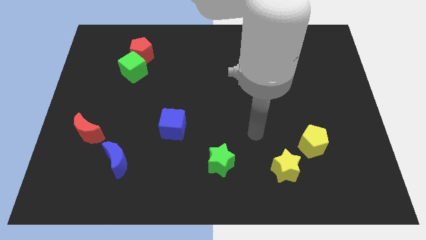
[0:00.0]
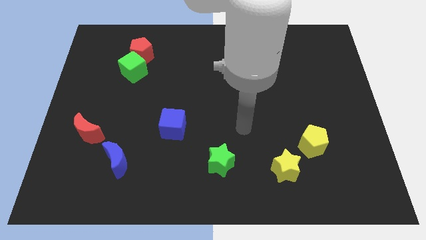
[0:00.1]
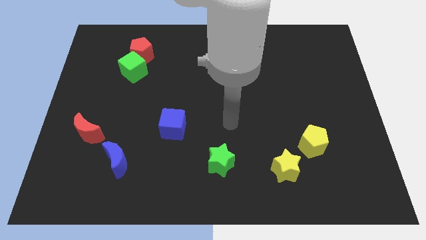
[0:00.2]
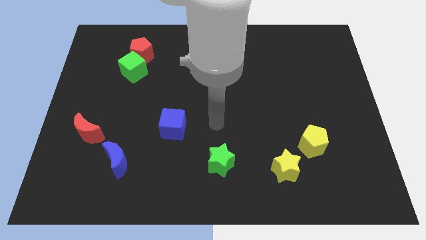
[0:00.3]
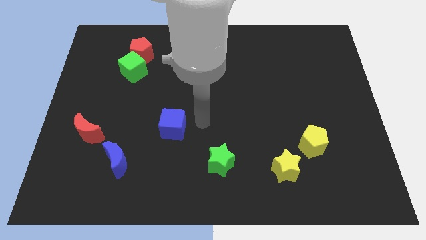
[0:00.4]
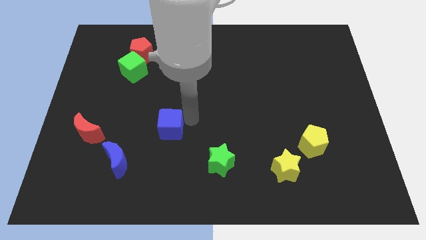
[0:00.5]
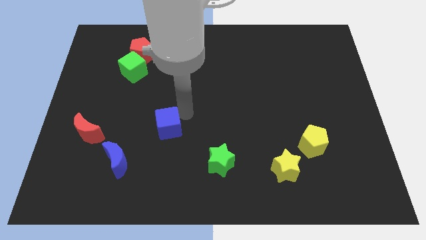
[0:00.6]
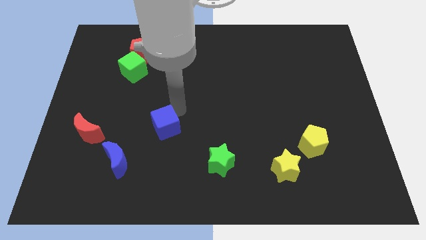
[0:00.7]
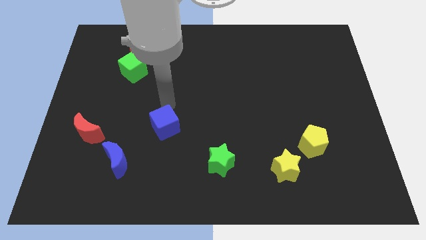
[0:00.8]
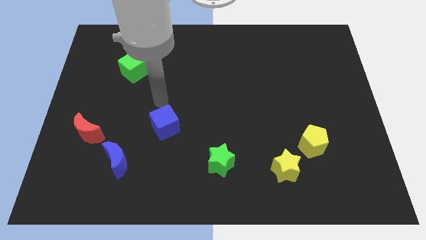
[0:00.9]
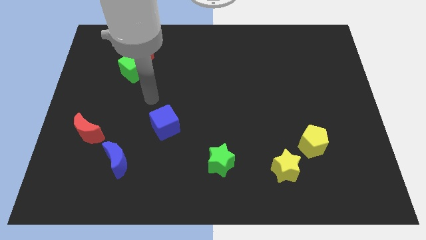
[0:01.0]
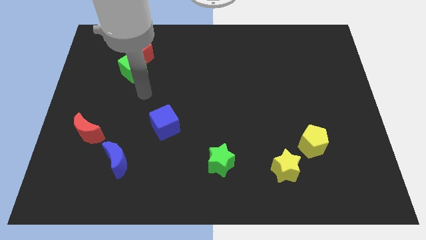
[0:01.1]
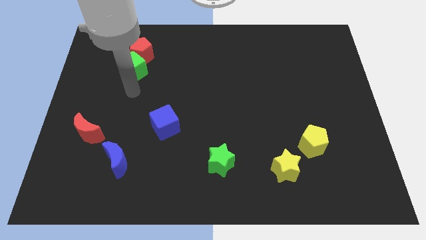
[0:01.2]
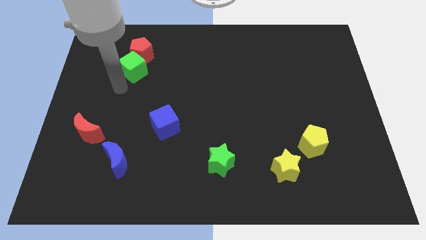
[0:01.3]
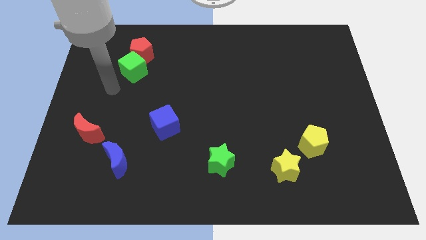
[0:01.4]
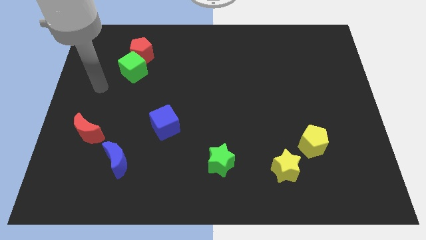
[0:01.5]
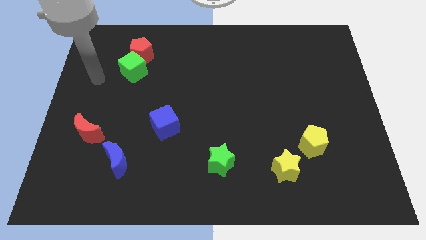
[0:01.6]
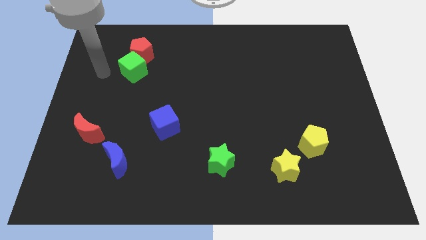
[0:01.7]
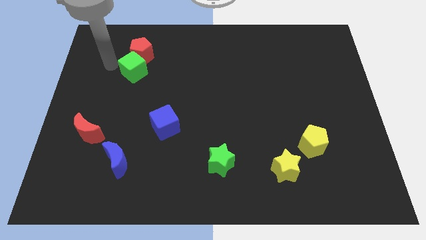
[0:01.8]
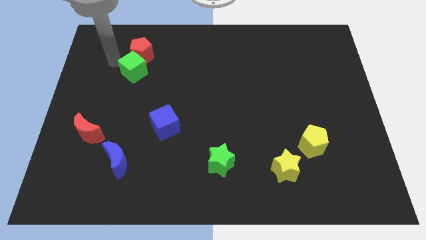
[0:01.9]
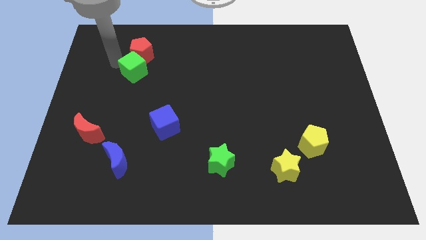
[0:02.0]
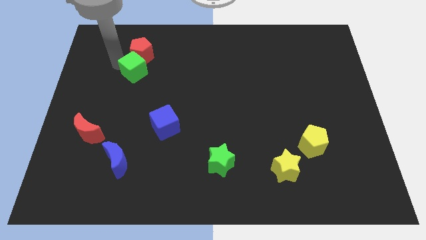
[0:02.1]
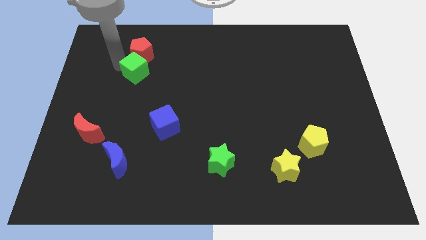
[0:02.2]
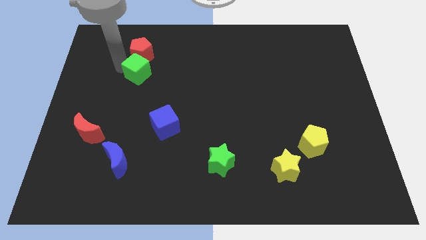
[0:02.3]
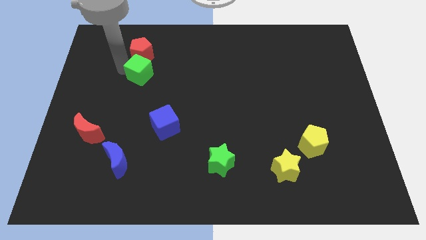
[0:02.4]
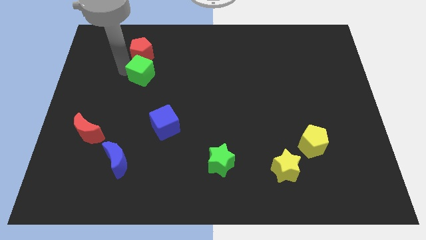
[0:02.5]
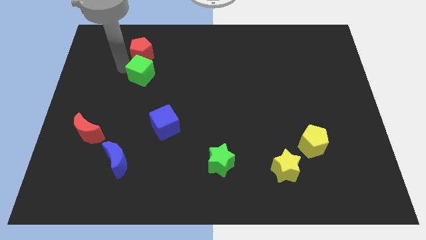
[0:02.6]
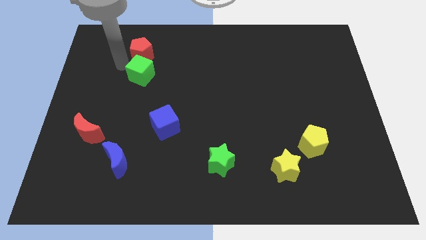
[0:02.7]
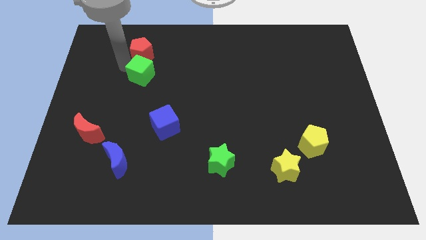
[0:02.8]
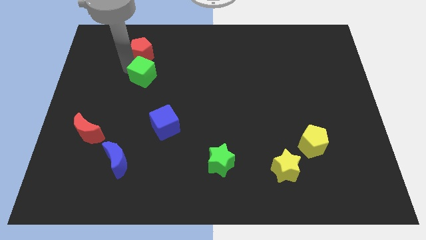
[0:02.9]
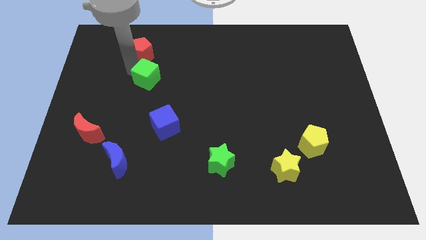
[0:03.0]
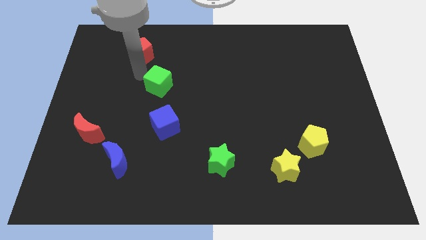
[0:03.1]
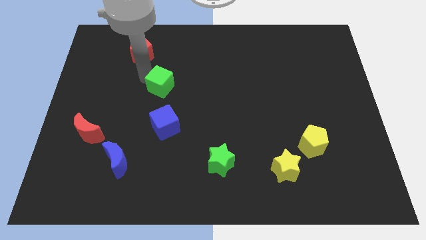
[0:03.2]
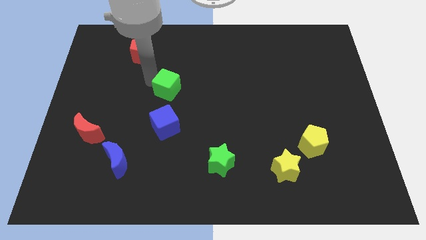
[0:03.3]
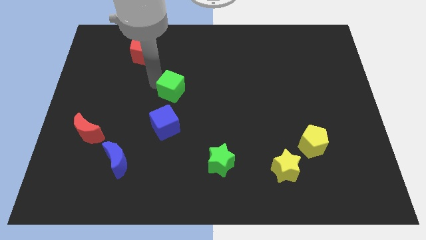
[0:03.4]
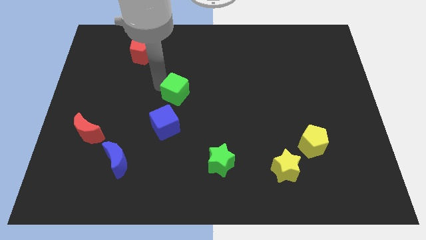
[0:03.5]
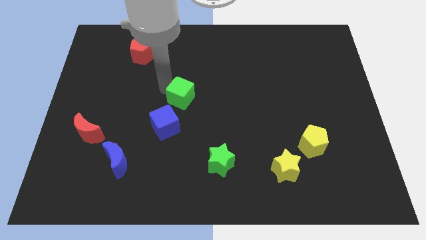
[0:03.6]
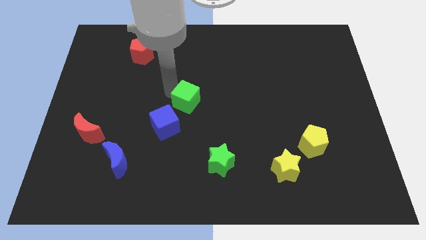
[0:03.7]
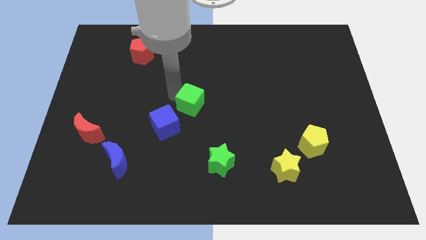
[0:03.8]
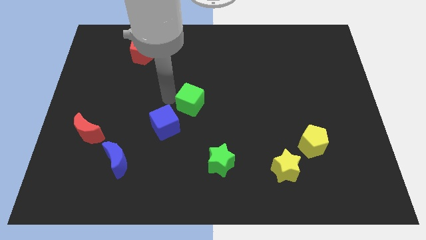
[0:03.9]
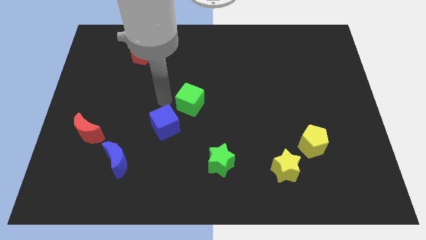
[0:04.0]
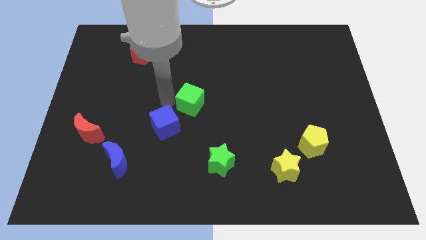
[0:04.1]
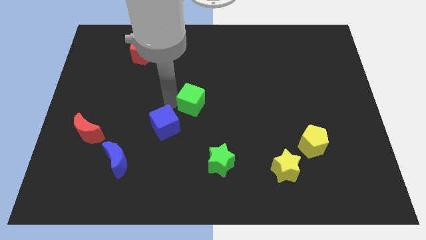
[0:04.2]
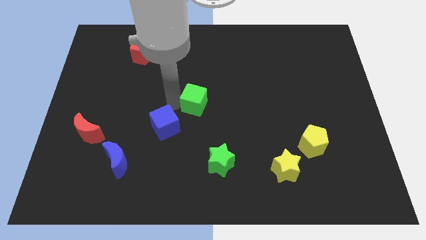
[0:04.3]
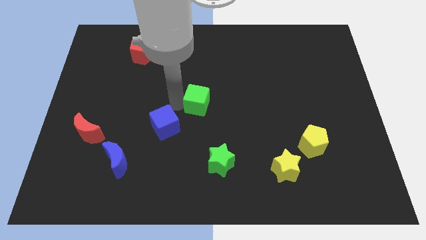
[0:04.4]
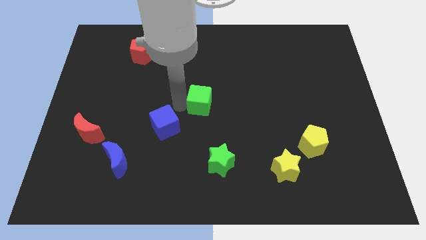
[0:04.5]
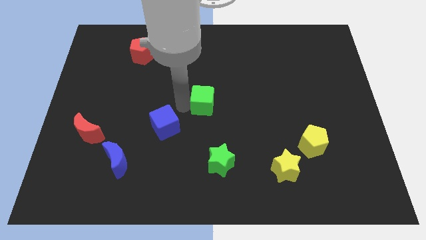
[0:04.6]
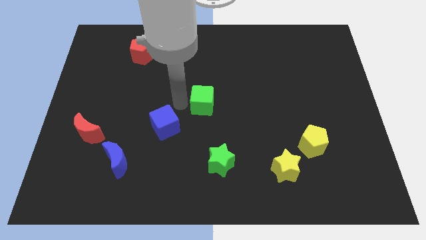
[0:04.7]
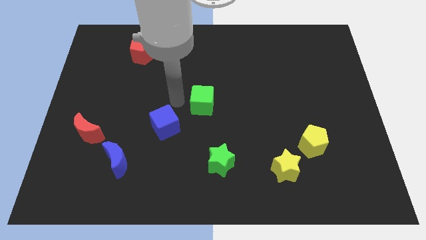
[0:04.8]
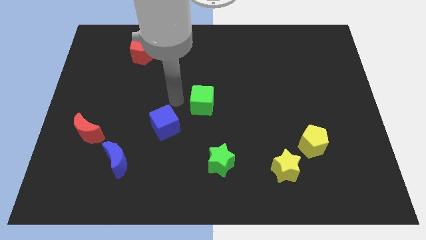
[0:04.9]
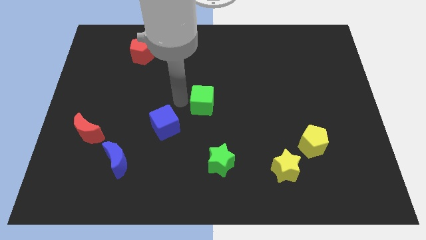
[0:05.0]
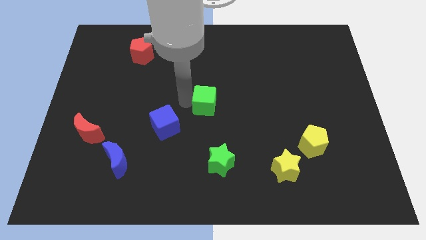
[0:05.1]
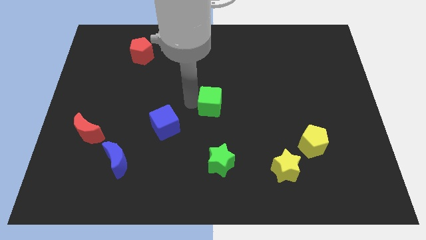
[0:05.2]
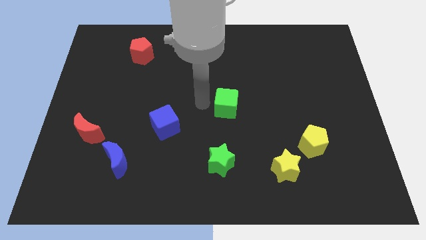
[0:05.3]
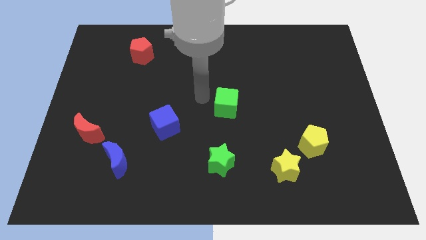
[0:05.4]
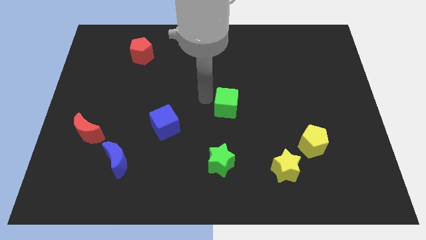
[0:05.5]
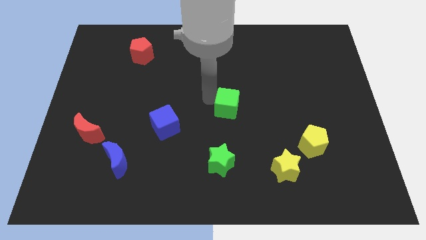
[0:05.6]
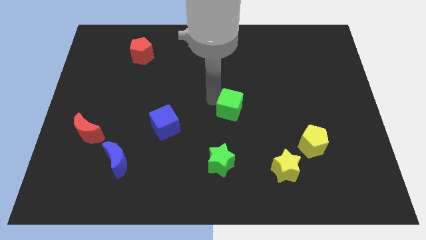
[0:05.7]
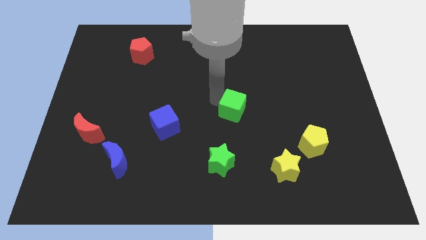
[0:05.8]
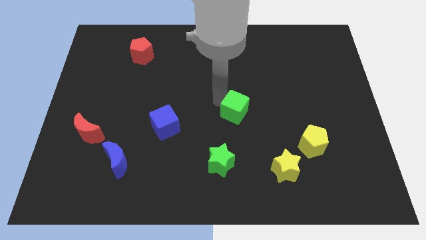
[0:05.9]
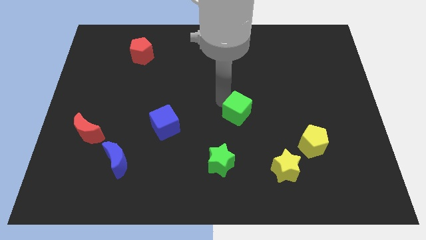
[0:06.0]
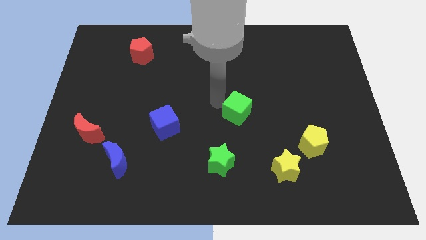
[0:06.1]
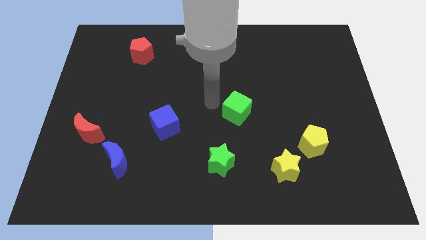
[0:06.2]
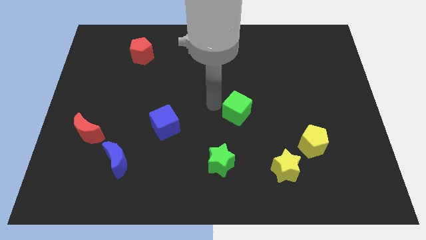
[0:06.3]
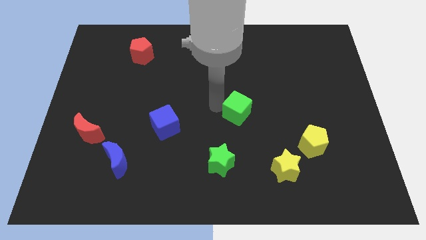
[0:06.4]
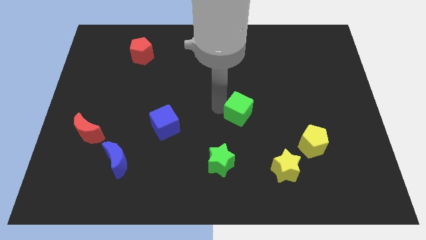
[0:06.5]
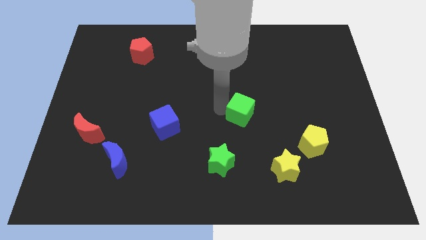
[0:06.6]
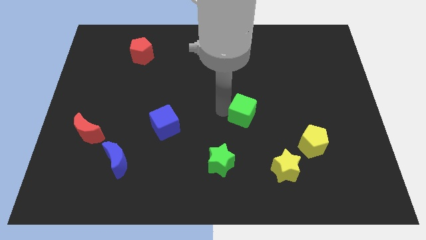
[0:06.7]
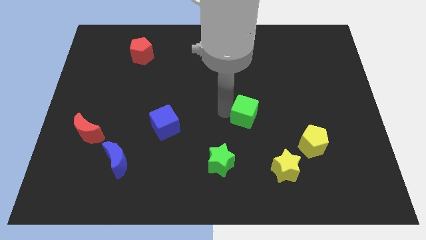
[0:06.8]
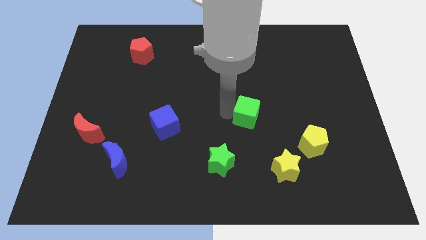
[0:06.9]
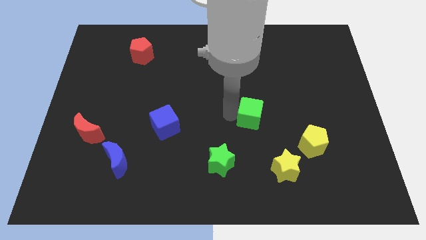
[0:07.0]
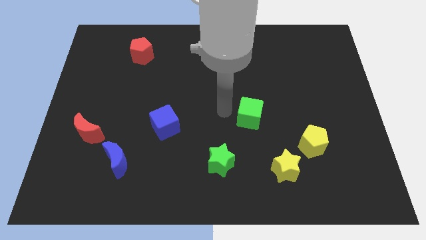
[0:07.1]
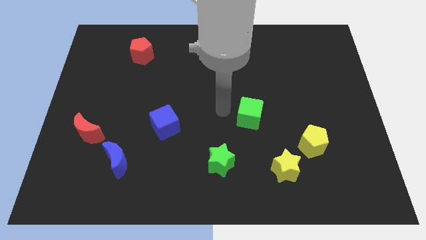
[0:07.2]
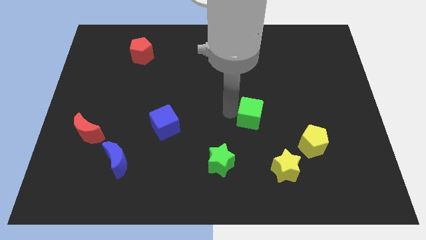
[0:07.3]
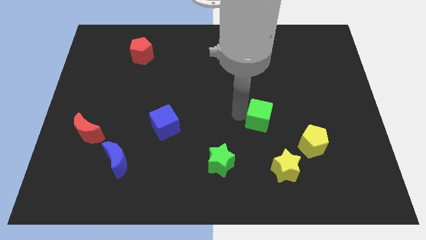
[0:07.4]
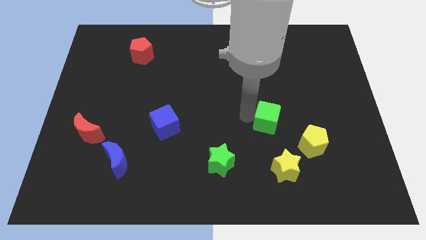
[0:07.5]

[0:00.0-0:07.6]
push the green cube to the top left side of the yellow pentagon
